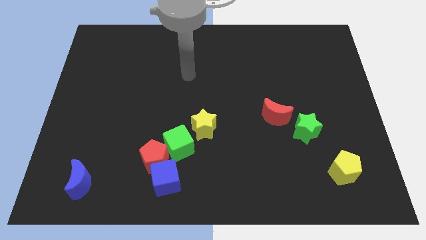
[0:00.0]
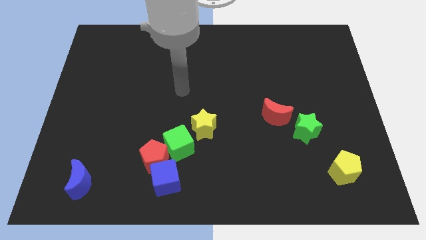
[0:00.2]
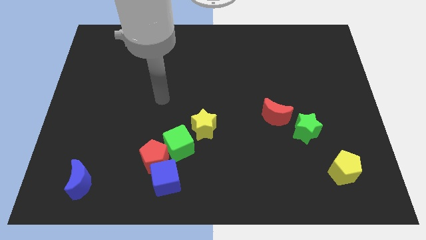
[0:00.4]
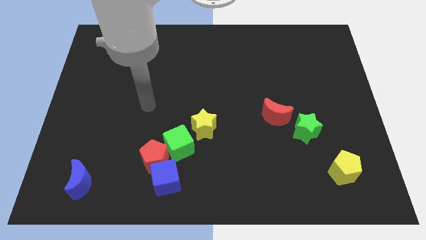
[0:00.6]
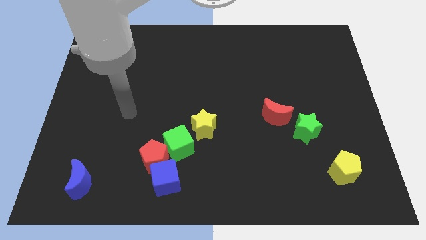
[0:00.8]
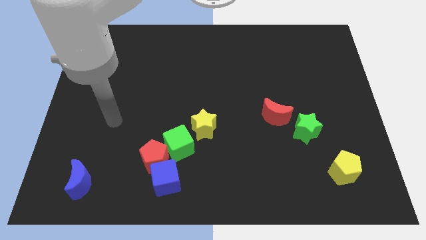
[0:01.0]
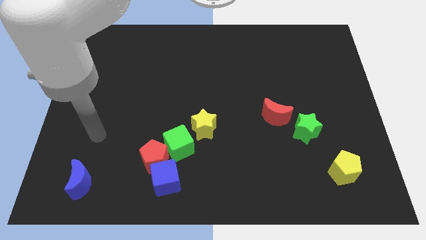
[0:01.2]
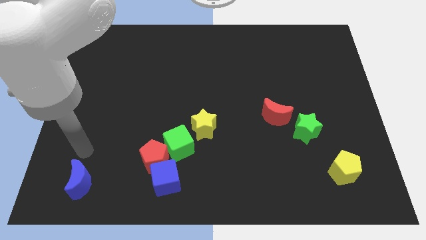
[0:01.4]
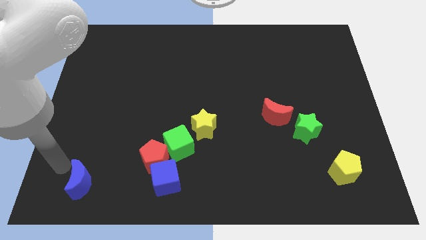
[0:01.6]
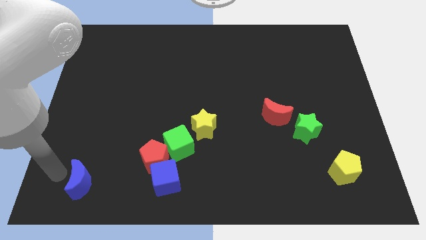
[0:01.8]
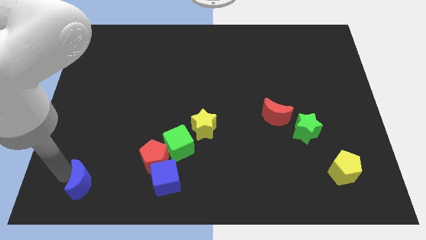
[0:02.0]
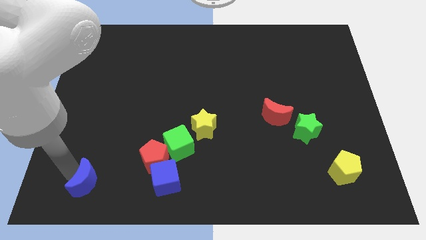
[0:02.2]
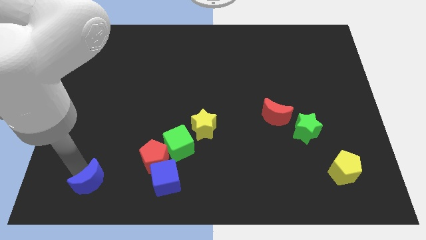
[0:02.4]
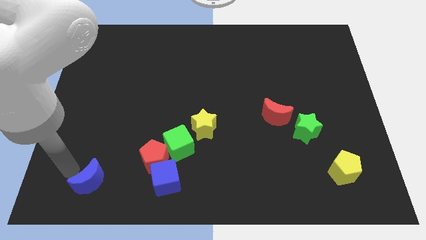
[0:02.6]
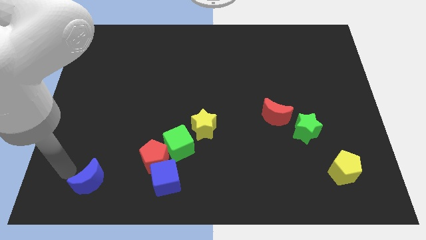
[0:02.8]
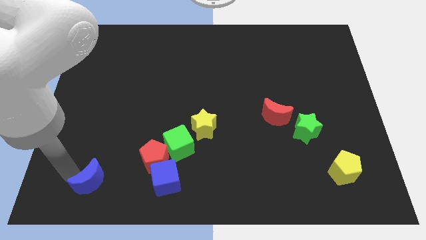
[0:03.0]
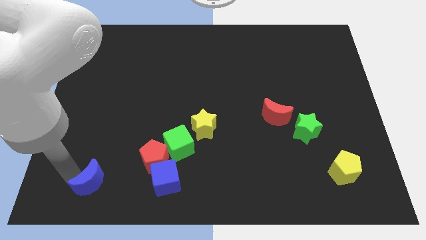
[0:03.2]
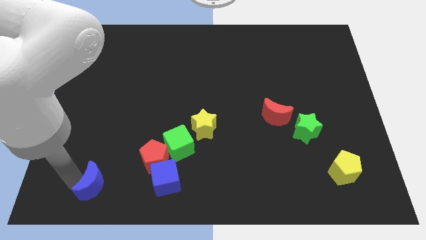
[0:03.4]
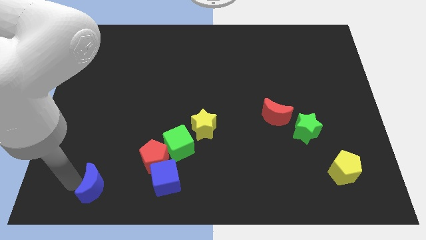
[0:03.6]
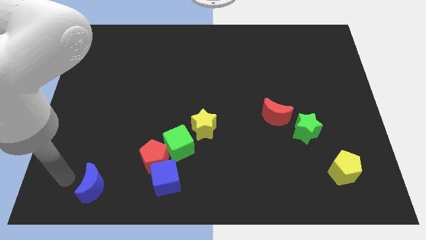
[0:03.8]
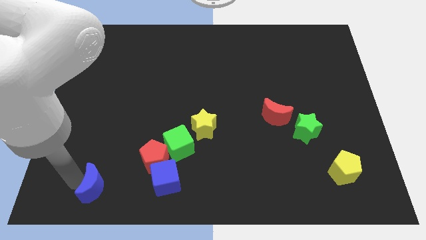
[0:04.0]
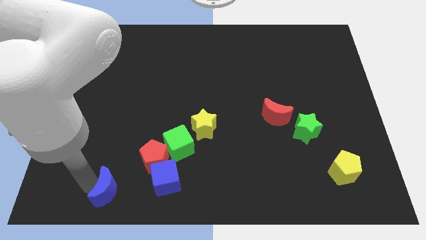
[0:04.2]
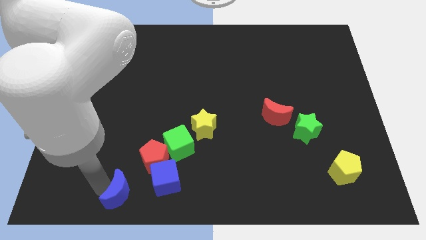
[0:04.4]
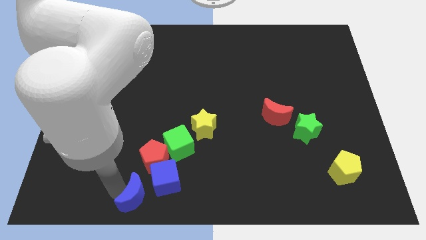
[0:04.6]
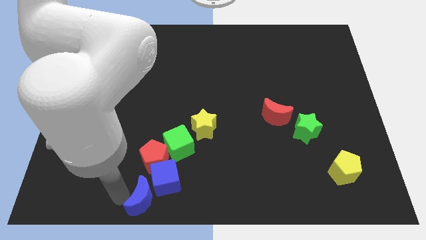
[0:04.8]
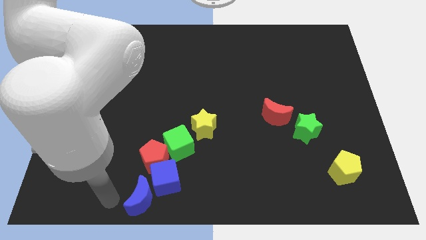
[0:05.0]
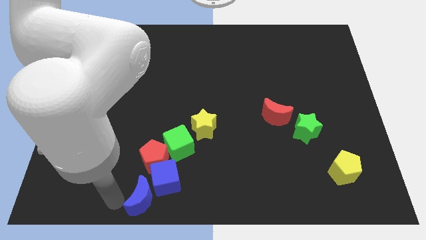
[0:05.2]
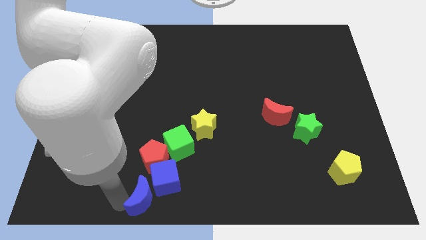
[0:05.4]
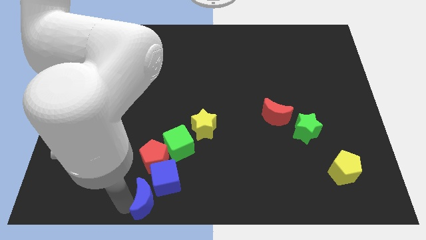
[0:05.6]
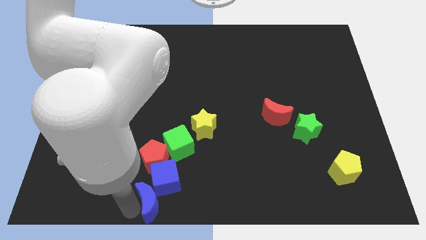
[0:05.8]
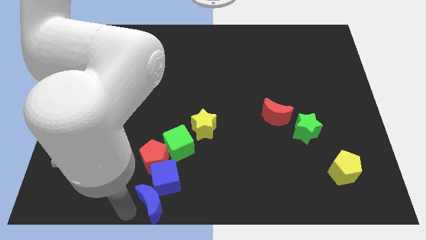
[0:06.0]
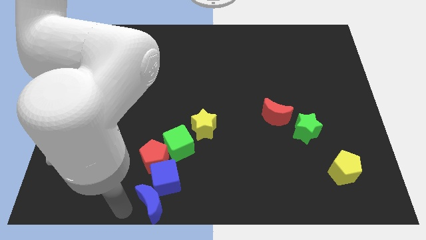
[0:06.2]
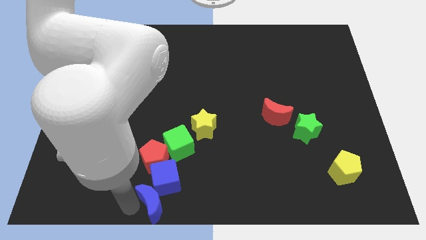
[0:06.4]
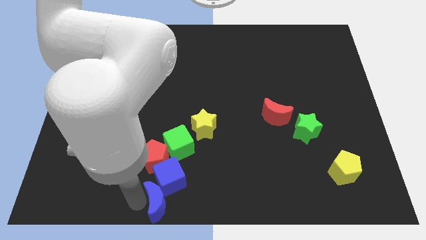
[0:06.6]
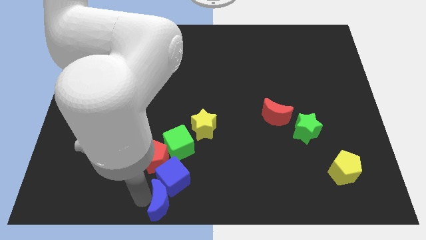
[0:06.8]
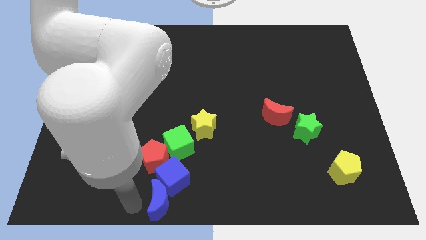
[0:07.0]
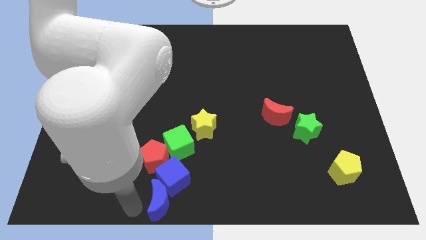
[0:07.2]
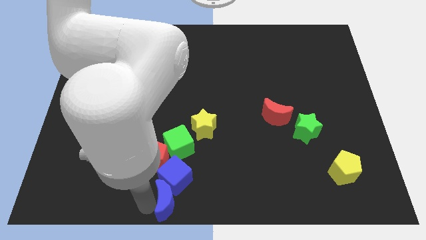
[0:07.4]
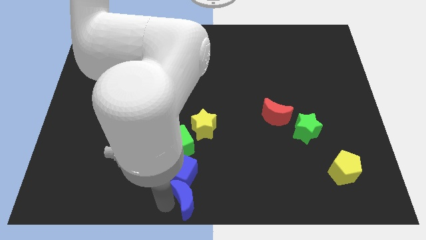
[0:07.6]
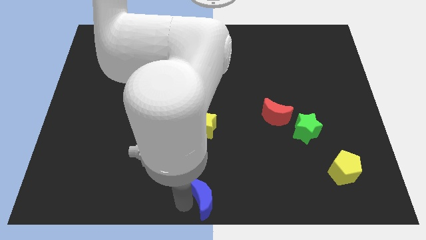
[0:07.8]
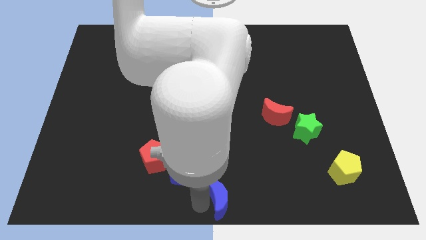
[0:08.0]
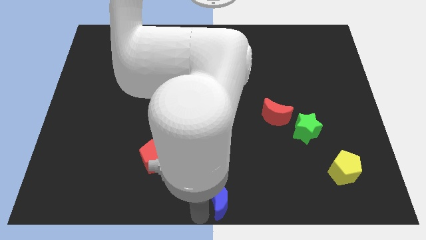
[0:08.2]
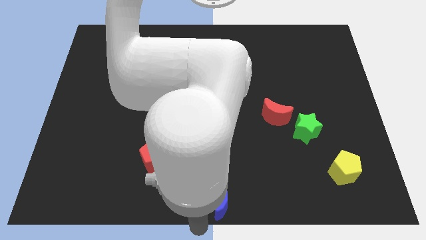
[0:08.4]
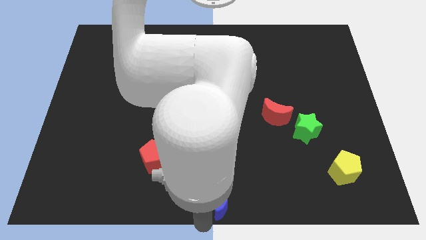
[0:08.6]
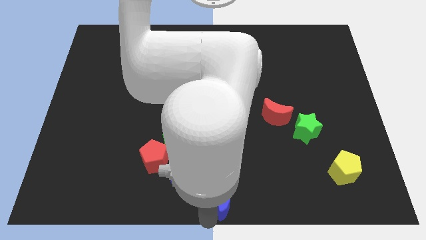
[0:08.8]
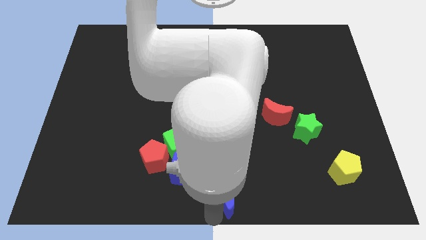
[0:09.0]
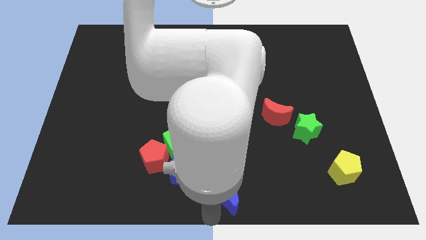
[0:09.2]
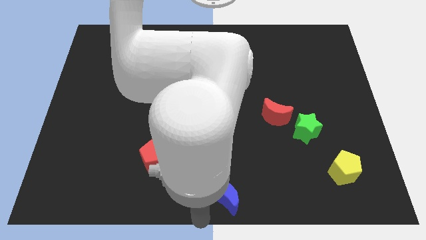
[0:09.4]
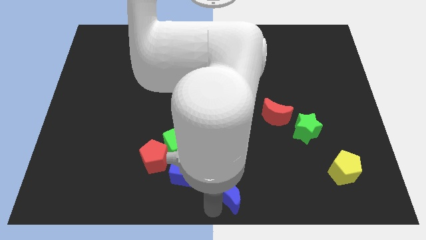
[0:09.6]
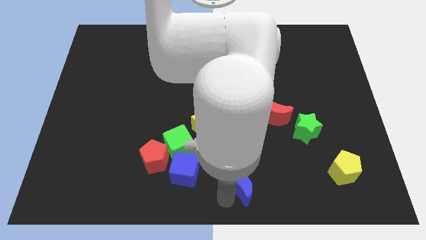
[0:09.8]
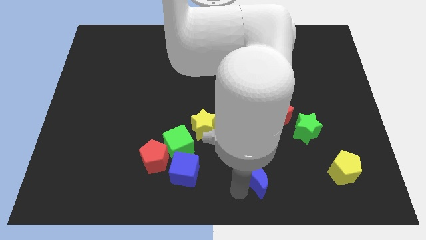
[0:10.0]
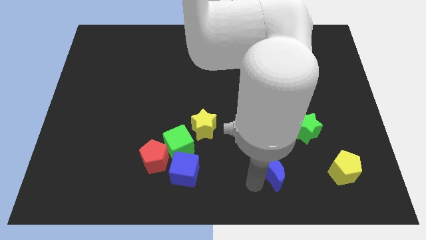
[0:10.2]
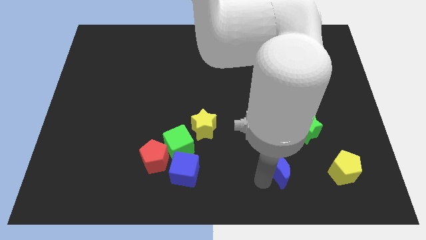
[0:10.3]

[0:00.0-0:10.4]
push the blue moon to the bottom left side of the green star
